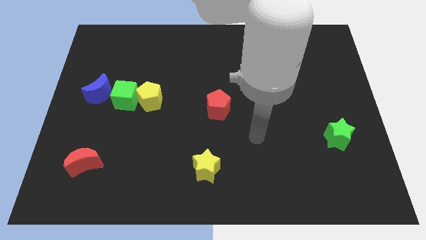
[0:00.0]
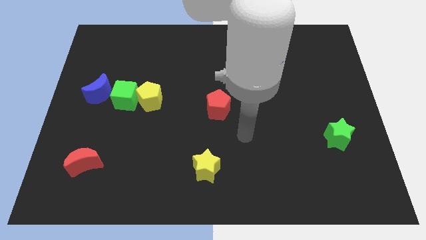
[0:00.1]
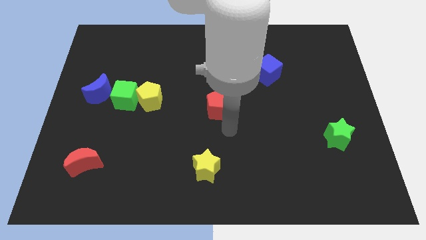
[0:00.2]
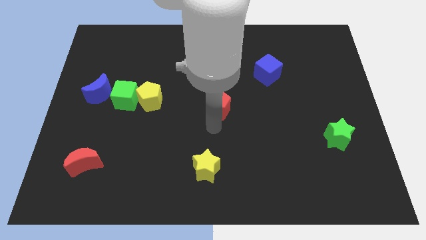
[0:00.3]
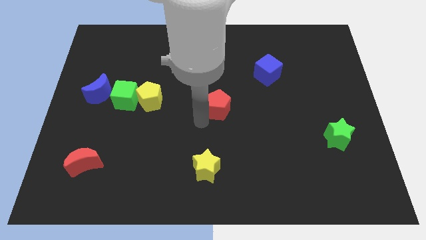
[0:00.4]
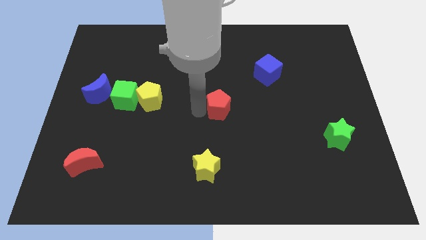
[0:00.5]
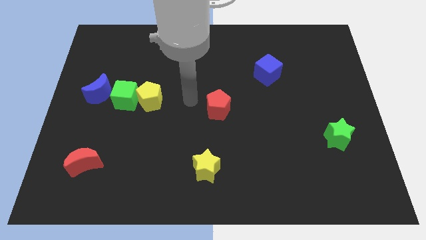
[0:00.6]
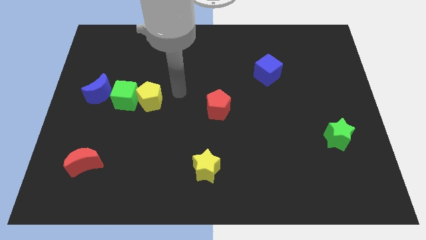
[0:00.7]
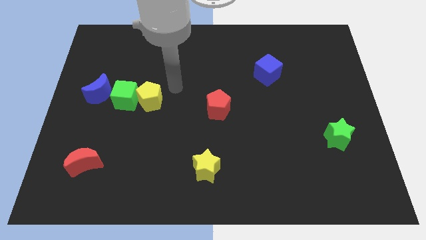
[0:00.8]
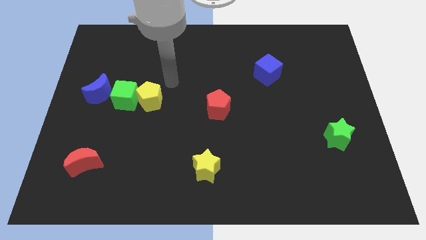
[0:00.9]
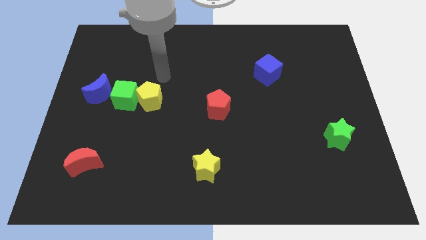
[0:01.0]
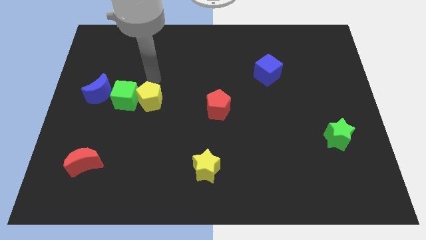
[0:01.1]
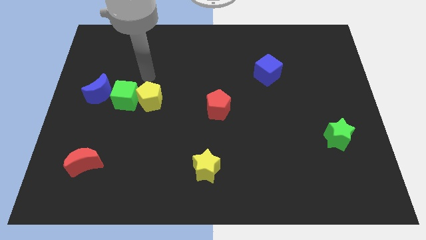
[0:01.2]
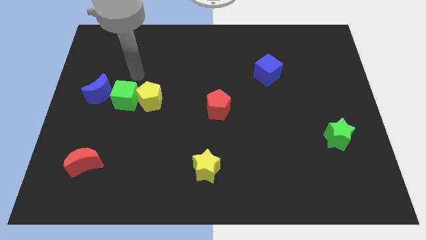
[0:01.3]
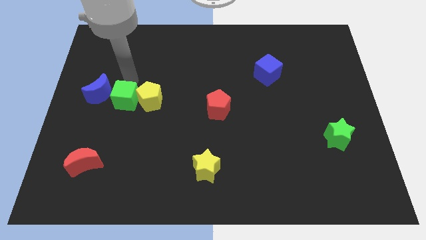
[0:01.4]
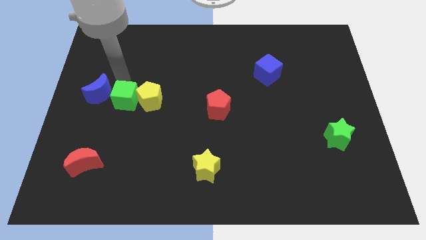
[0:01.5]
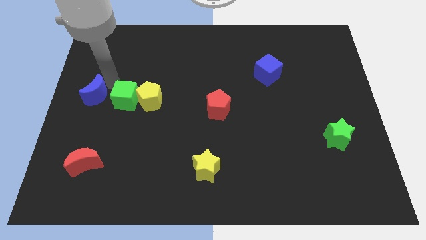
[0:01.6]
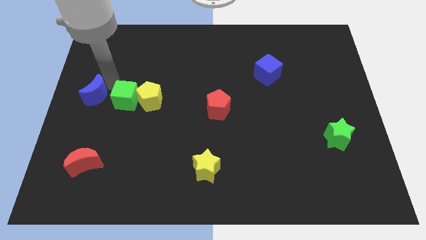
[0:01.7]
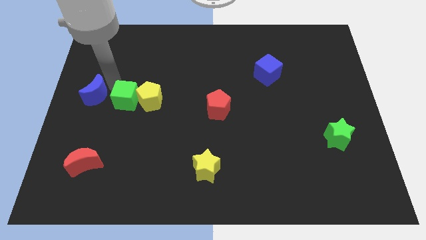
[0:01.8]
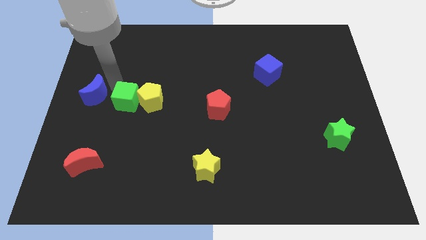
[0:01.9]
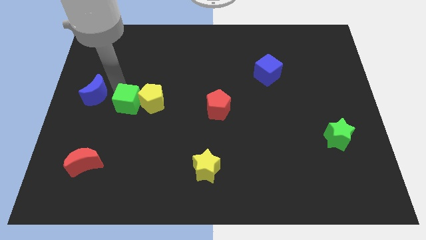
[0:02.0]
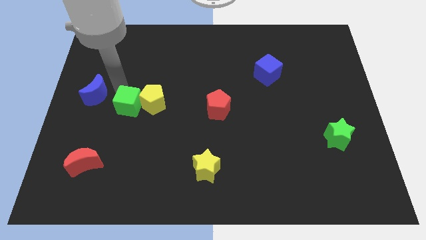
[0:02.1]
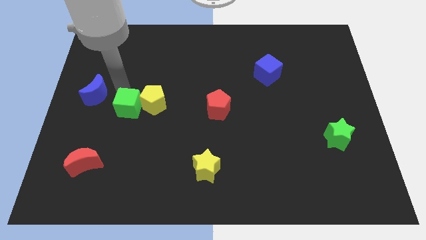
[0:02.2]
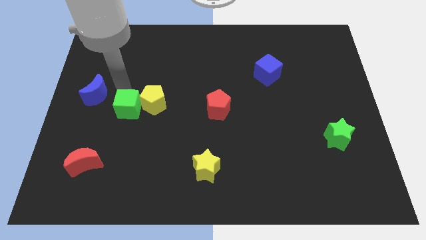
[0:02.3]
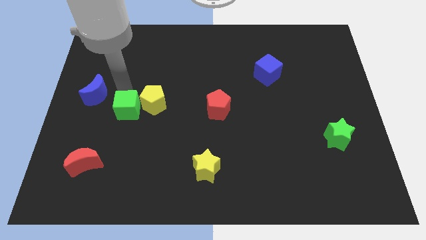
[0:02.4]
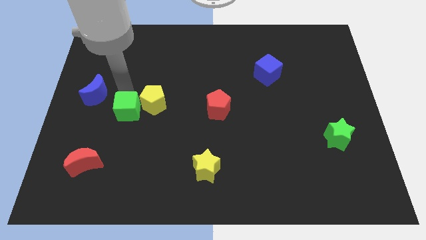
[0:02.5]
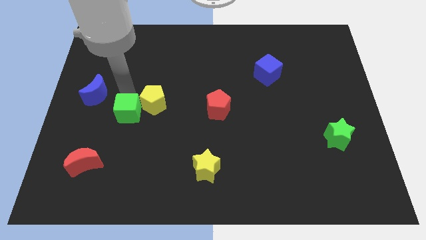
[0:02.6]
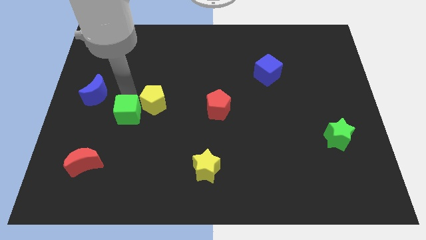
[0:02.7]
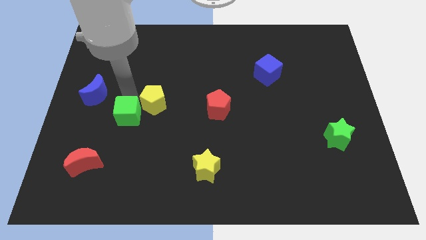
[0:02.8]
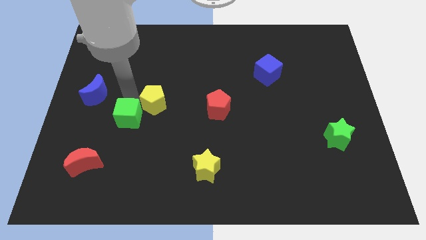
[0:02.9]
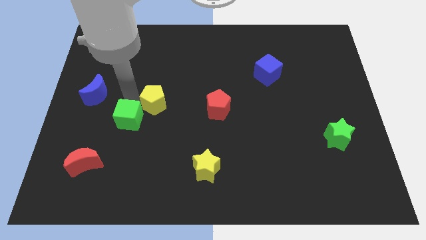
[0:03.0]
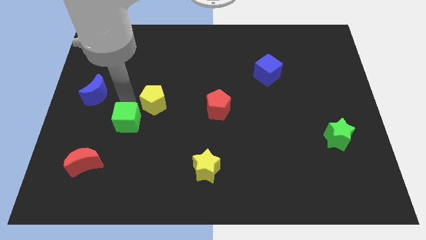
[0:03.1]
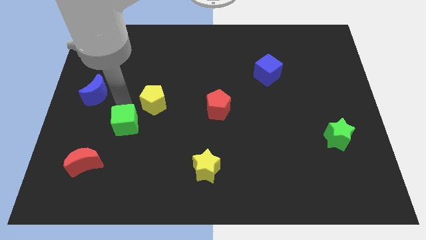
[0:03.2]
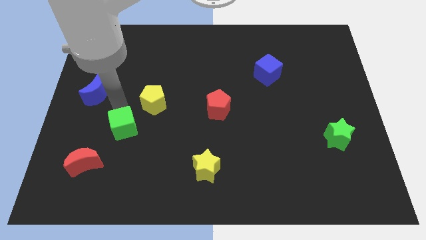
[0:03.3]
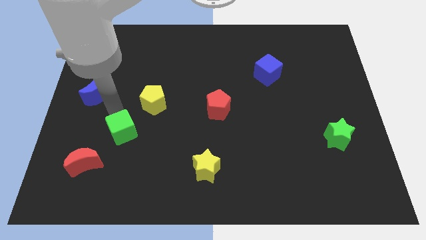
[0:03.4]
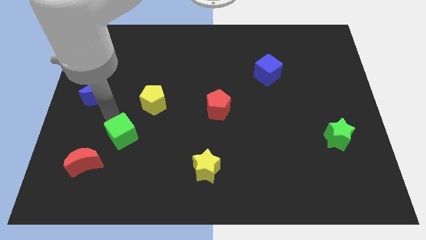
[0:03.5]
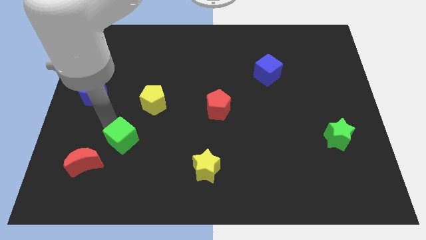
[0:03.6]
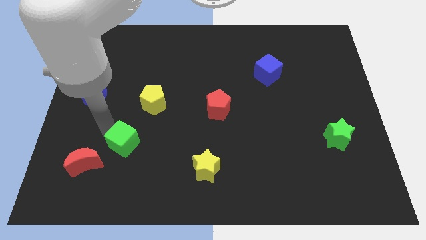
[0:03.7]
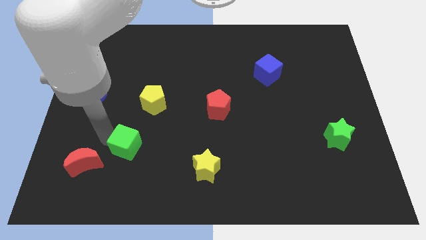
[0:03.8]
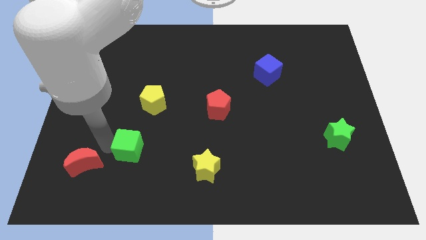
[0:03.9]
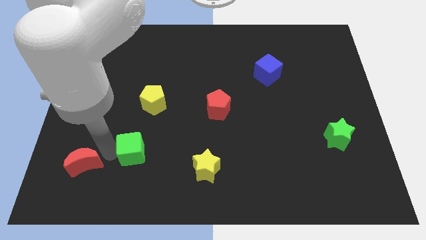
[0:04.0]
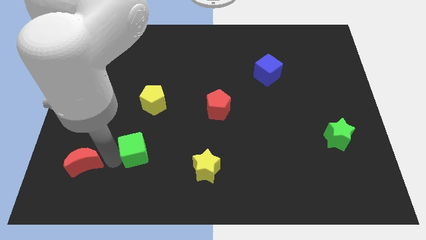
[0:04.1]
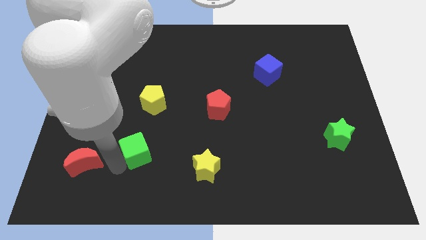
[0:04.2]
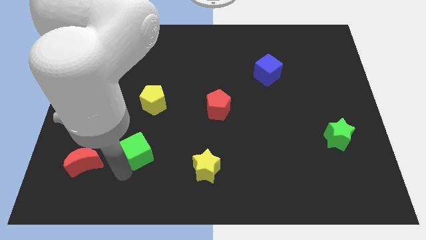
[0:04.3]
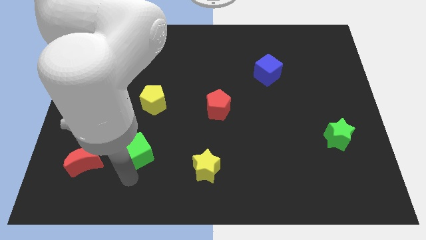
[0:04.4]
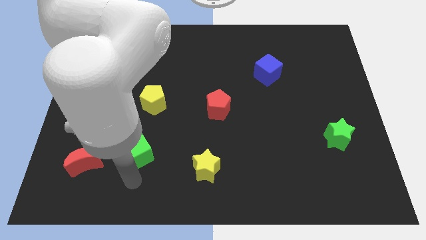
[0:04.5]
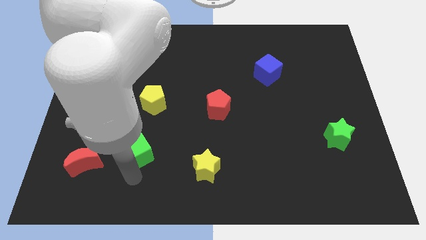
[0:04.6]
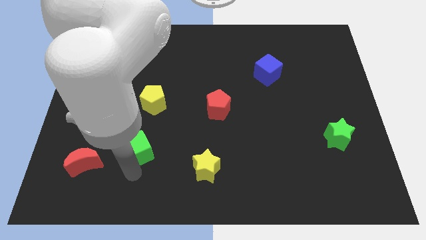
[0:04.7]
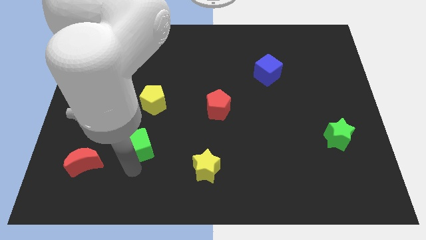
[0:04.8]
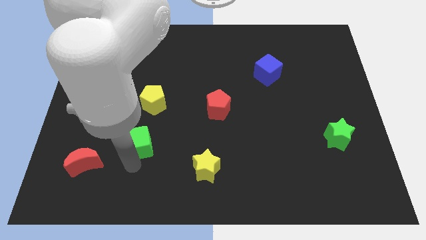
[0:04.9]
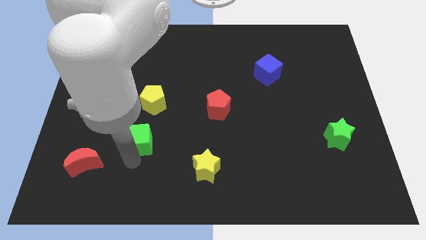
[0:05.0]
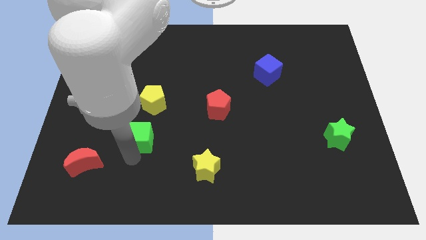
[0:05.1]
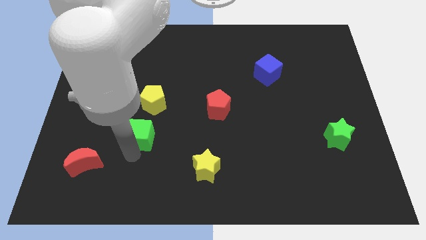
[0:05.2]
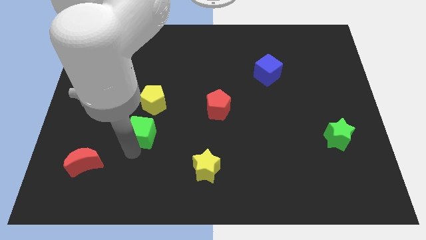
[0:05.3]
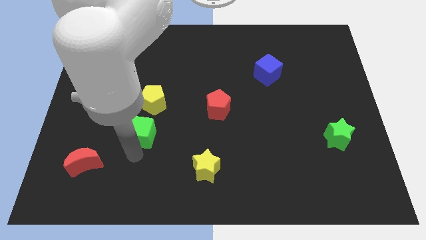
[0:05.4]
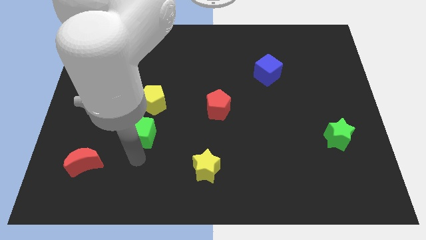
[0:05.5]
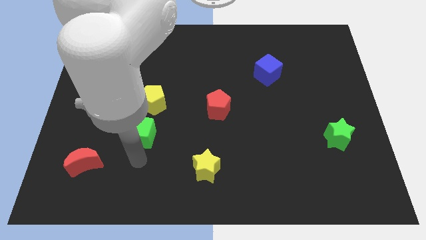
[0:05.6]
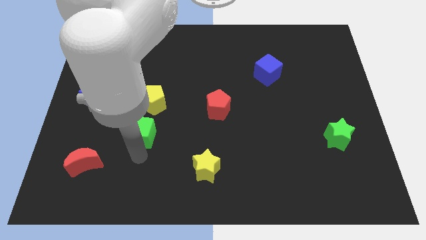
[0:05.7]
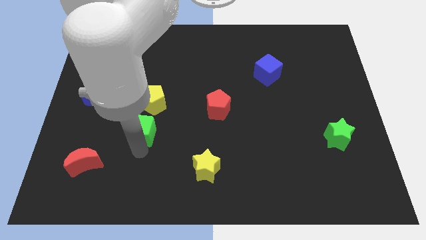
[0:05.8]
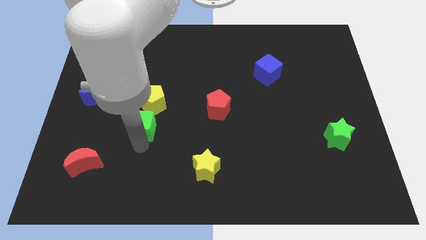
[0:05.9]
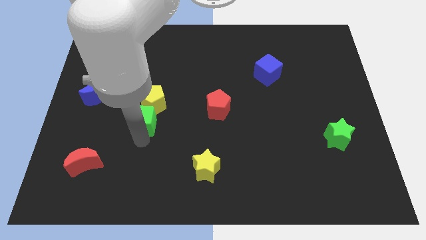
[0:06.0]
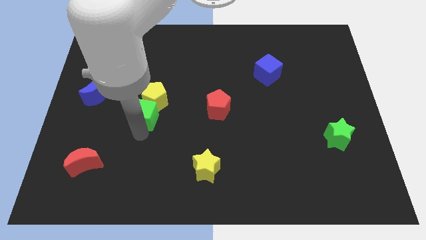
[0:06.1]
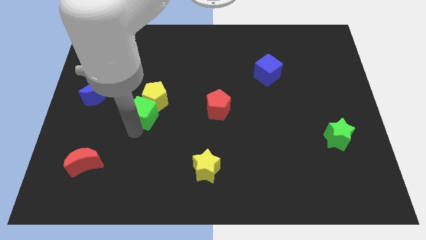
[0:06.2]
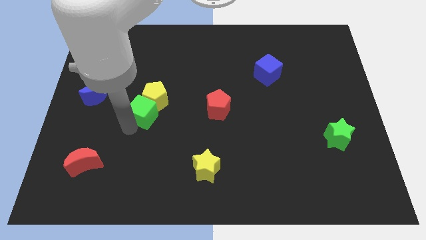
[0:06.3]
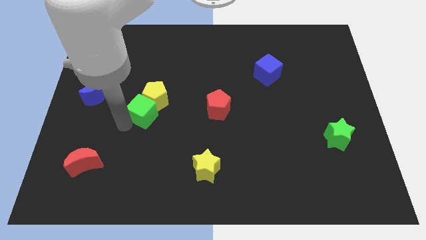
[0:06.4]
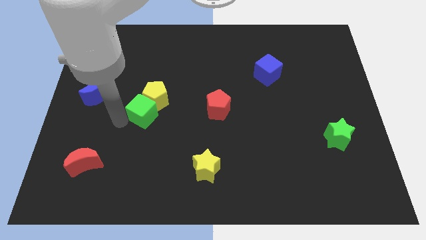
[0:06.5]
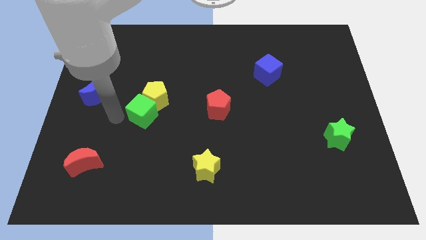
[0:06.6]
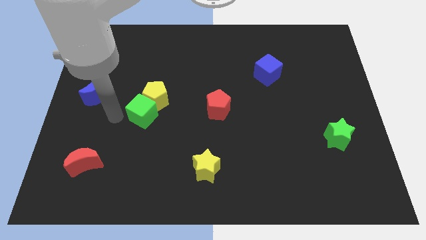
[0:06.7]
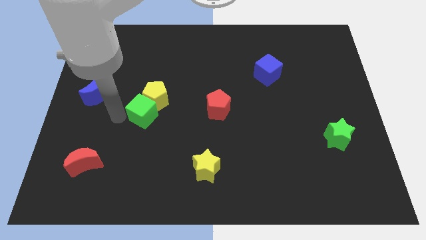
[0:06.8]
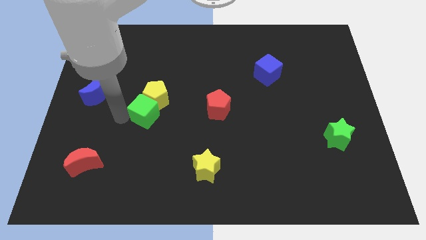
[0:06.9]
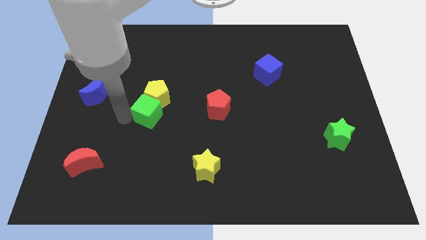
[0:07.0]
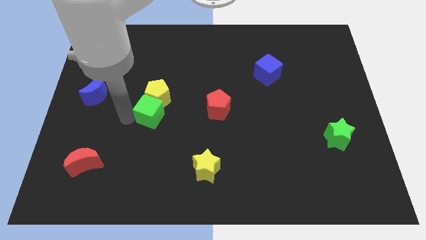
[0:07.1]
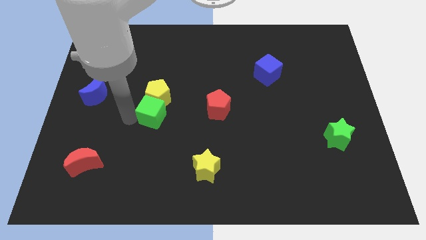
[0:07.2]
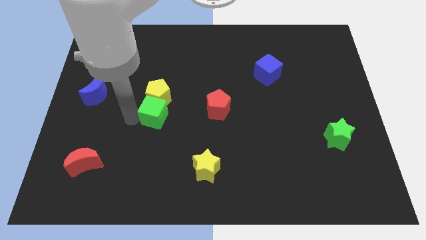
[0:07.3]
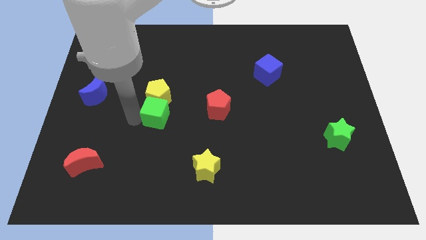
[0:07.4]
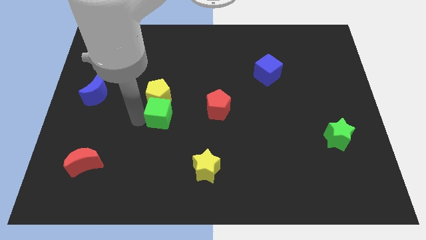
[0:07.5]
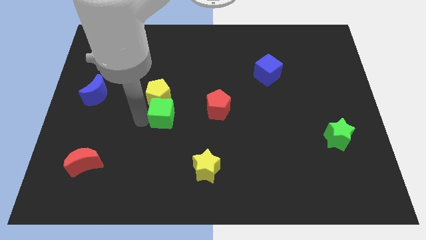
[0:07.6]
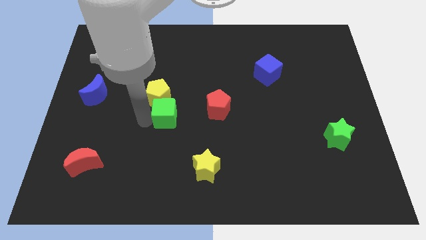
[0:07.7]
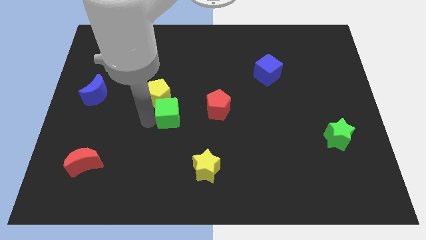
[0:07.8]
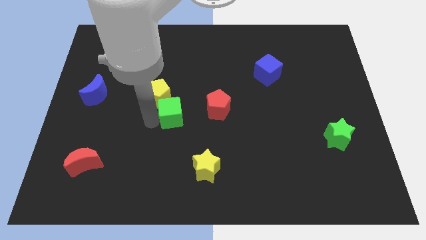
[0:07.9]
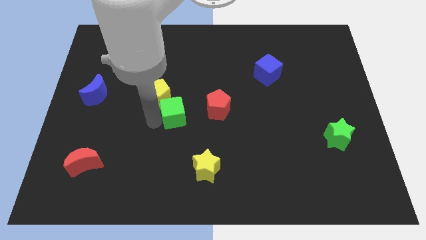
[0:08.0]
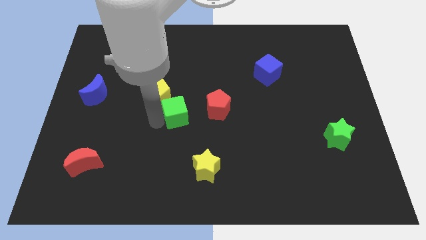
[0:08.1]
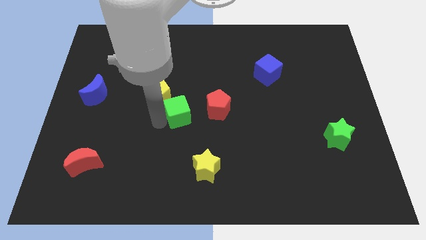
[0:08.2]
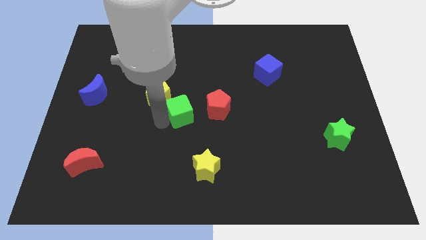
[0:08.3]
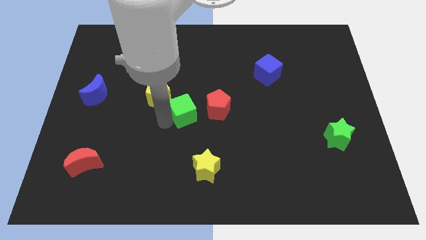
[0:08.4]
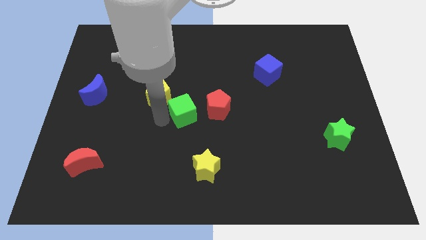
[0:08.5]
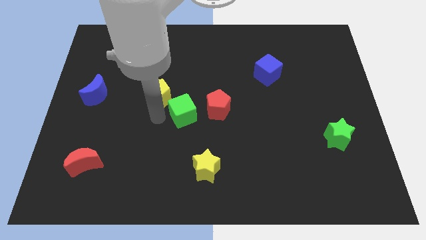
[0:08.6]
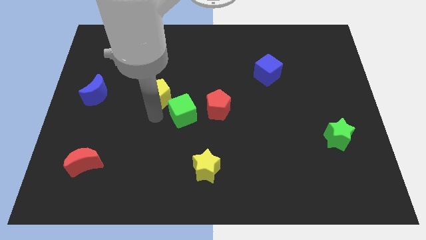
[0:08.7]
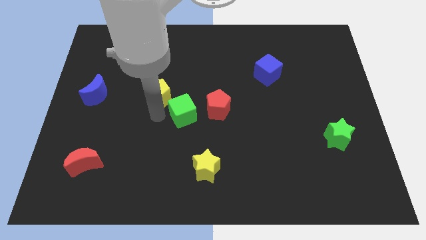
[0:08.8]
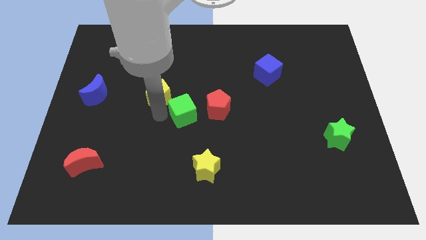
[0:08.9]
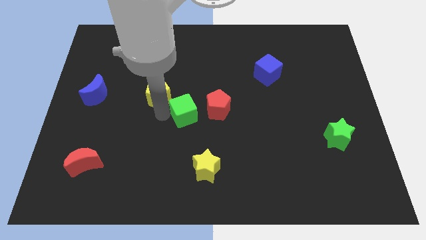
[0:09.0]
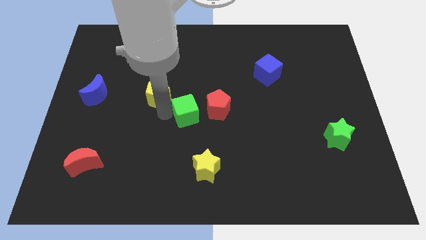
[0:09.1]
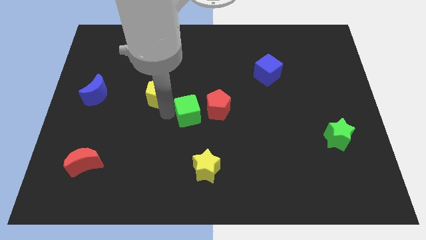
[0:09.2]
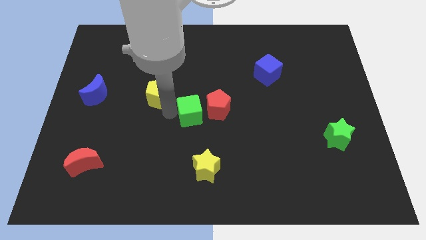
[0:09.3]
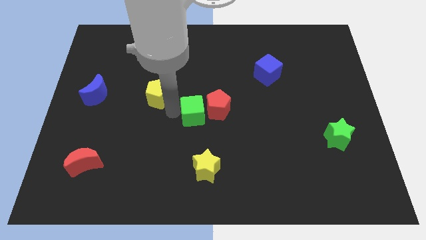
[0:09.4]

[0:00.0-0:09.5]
put the green cube to the red pentagon
